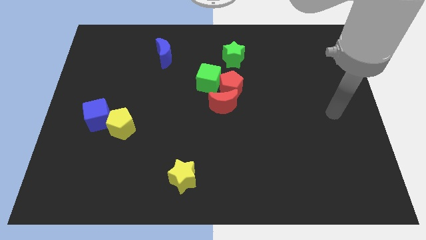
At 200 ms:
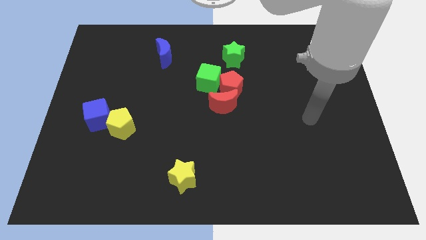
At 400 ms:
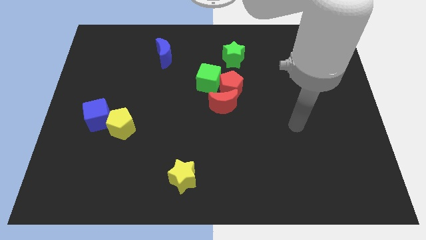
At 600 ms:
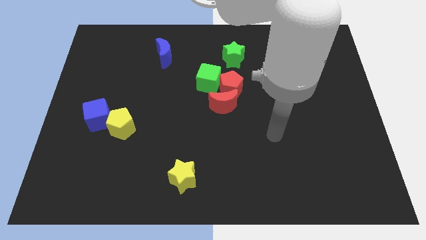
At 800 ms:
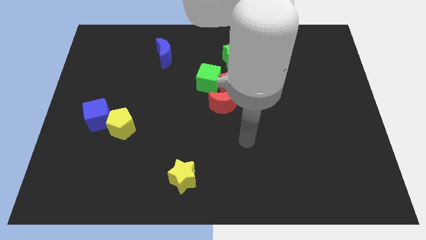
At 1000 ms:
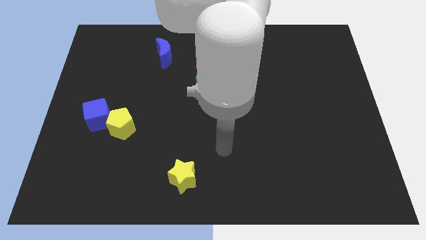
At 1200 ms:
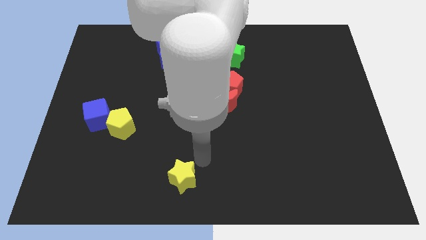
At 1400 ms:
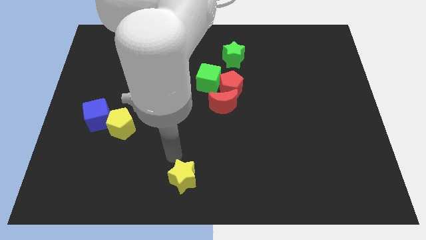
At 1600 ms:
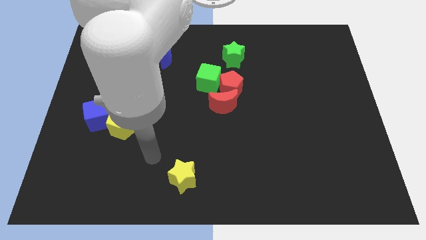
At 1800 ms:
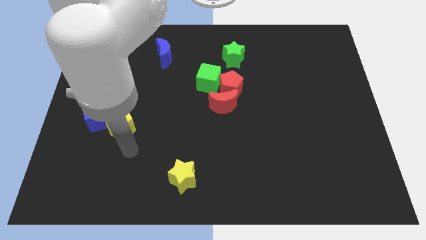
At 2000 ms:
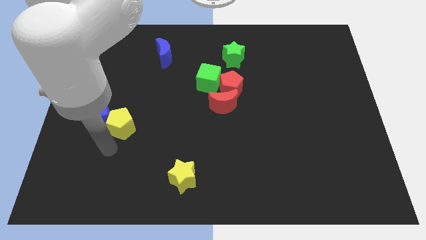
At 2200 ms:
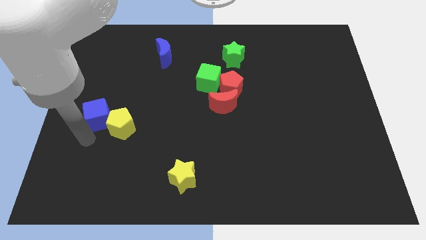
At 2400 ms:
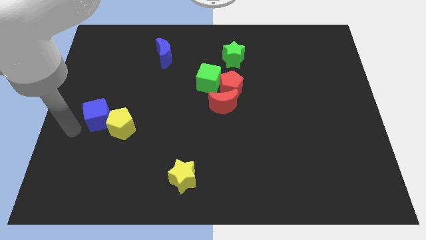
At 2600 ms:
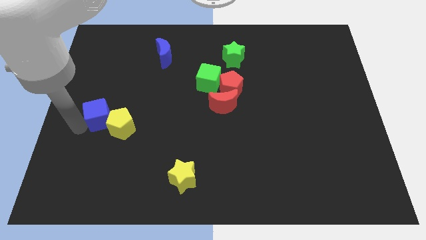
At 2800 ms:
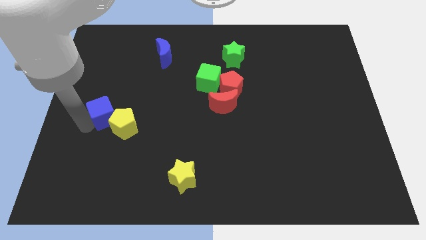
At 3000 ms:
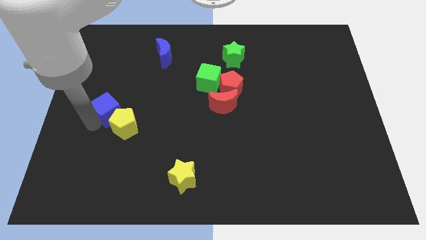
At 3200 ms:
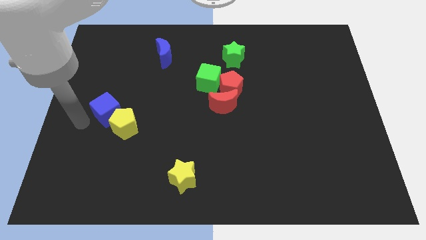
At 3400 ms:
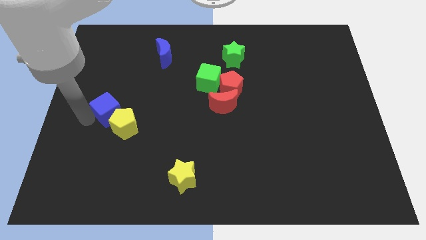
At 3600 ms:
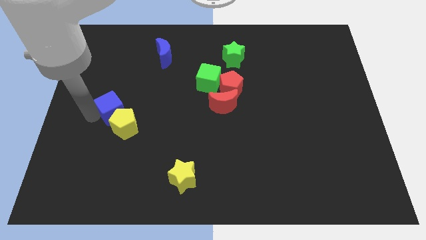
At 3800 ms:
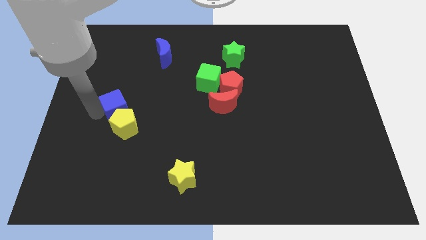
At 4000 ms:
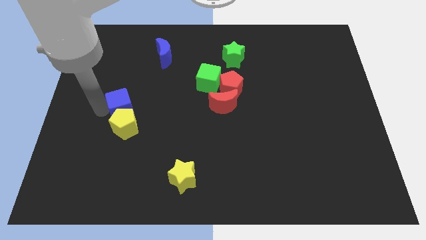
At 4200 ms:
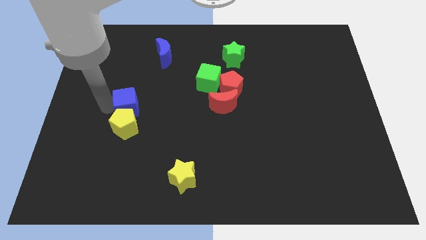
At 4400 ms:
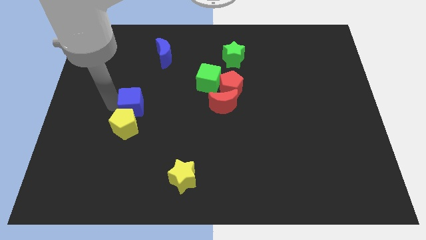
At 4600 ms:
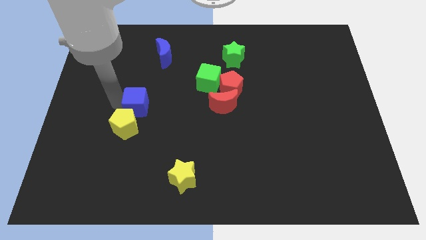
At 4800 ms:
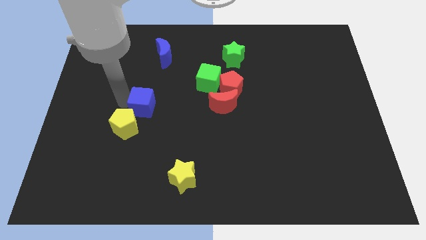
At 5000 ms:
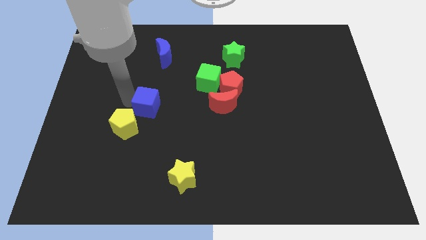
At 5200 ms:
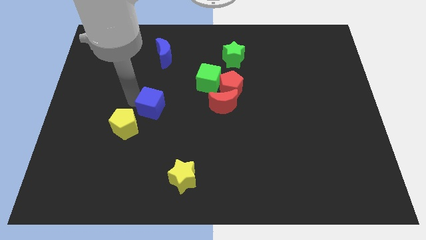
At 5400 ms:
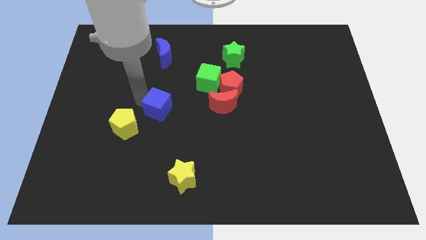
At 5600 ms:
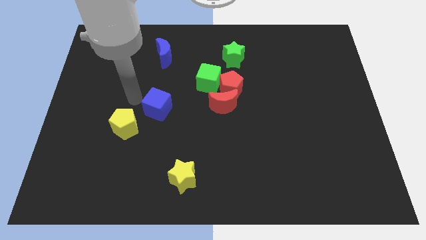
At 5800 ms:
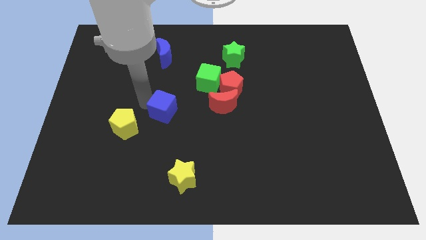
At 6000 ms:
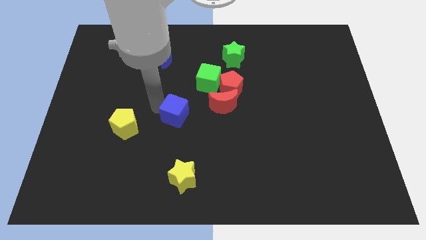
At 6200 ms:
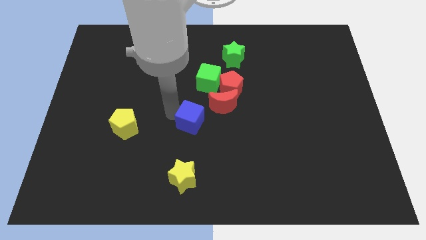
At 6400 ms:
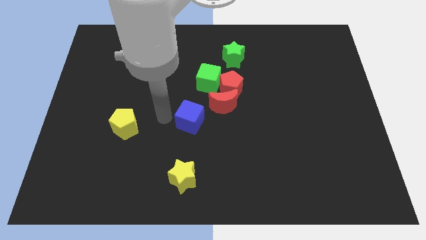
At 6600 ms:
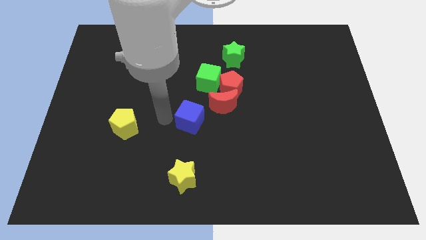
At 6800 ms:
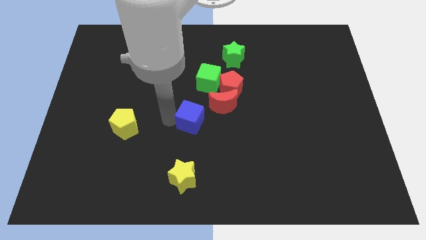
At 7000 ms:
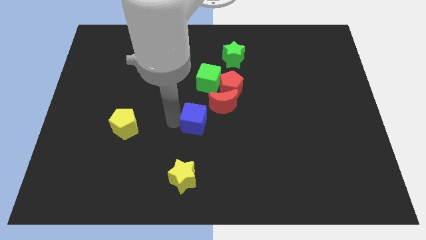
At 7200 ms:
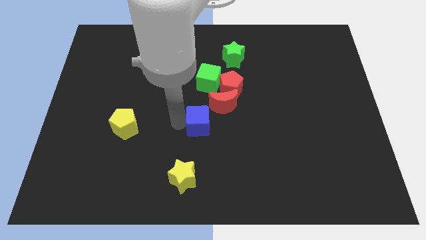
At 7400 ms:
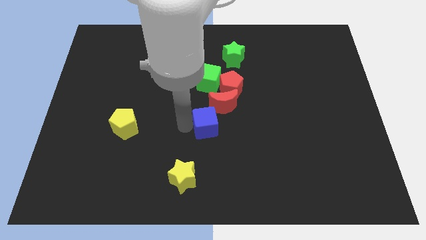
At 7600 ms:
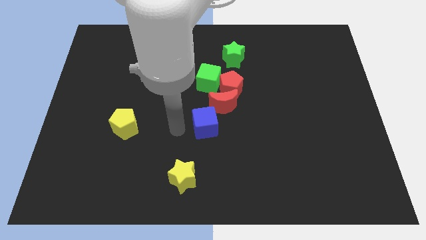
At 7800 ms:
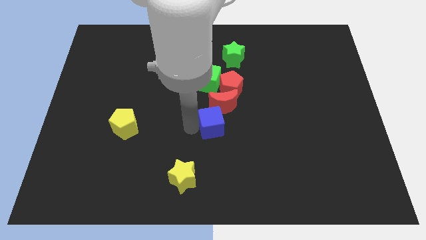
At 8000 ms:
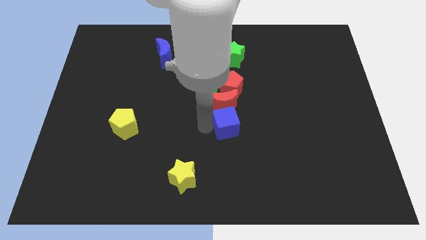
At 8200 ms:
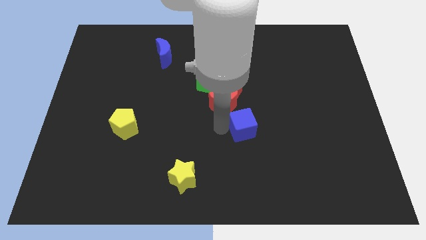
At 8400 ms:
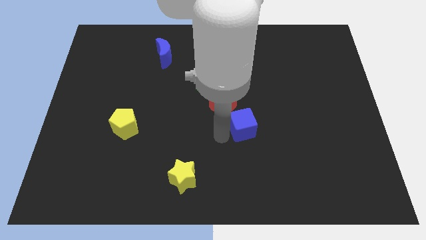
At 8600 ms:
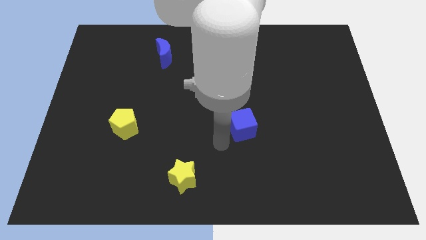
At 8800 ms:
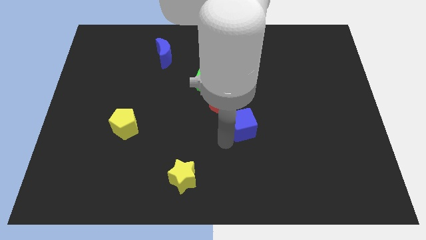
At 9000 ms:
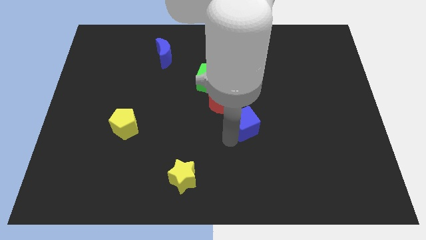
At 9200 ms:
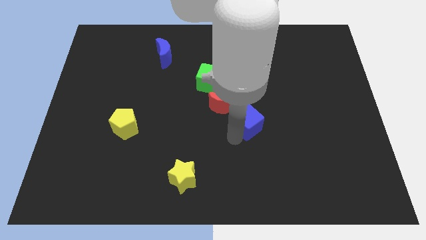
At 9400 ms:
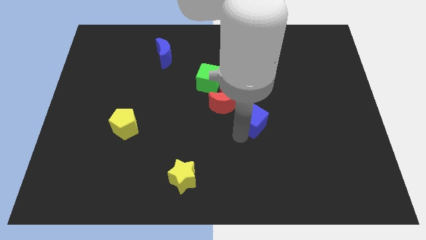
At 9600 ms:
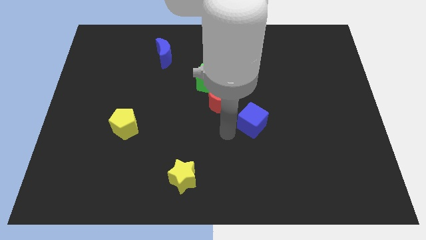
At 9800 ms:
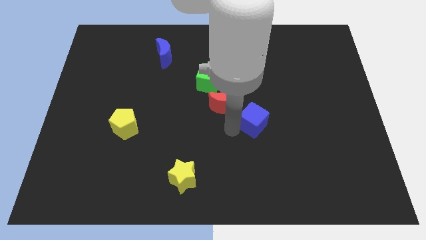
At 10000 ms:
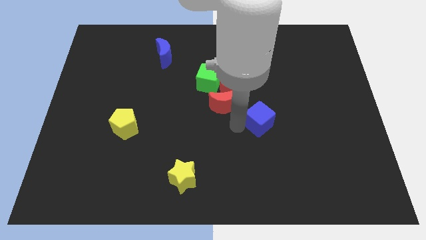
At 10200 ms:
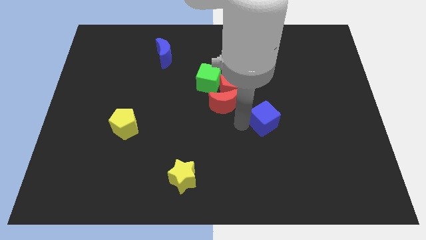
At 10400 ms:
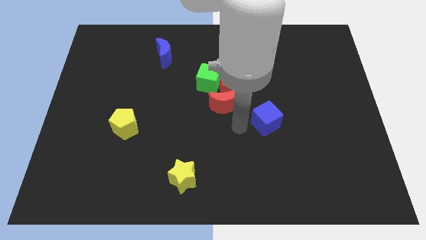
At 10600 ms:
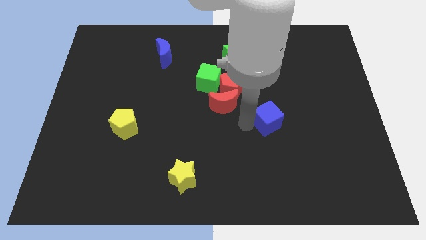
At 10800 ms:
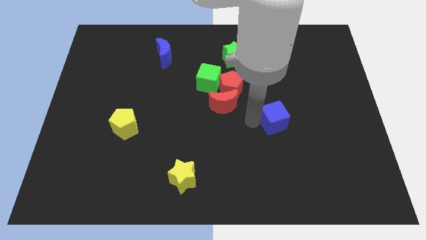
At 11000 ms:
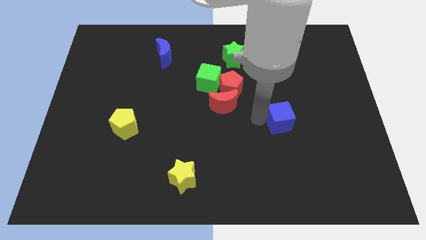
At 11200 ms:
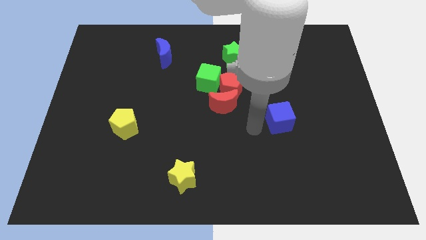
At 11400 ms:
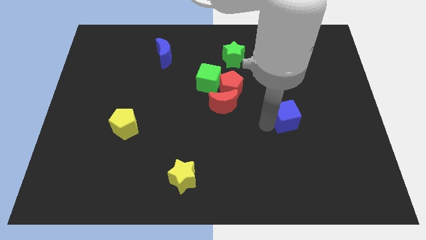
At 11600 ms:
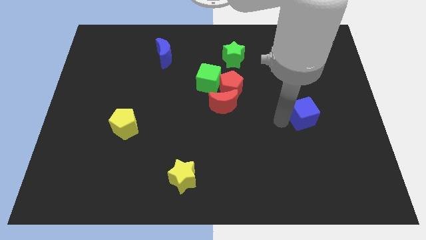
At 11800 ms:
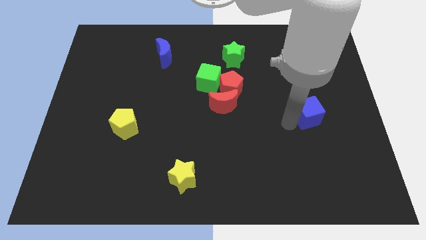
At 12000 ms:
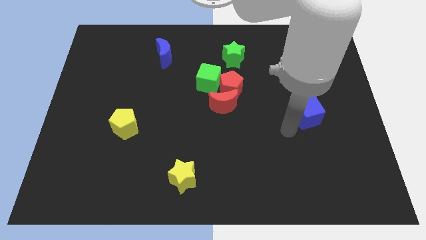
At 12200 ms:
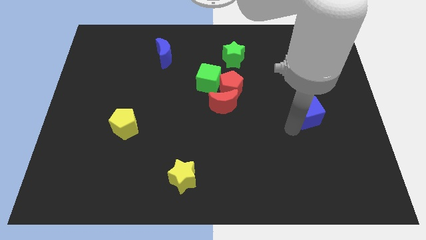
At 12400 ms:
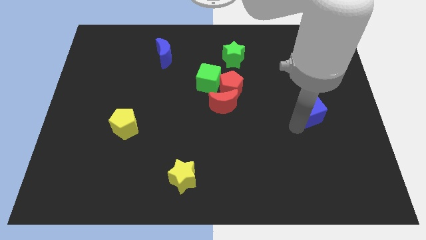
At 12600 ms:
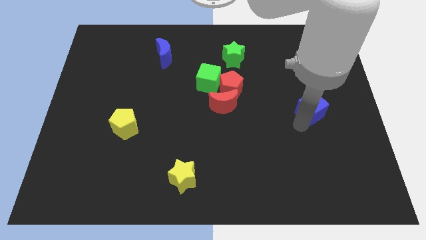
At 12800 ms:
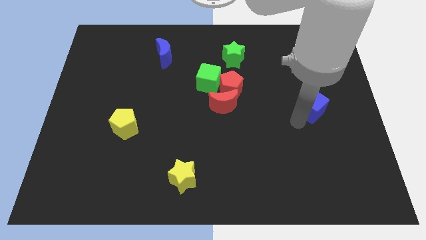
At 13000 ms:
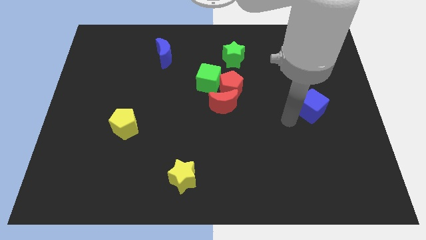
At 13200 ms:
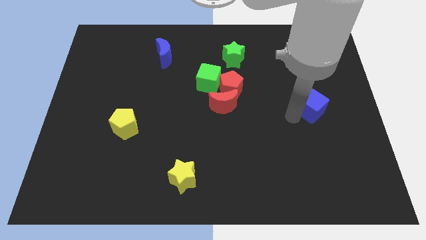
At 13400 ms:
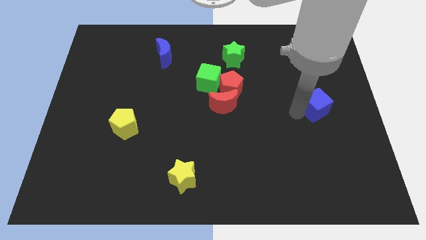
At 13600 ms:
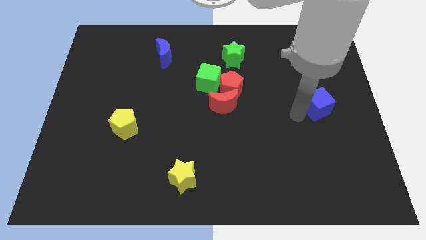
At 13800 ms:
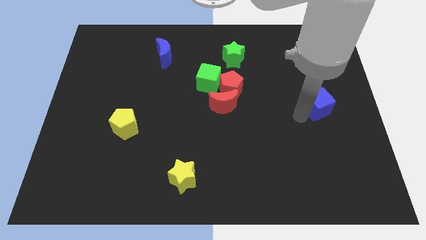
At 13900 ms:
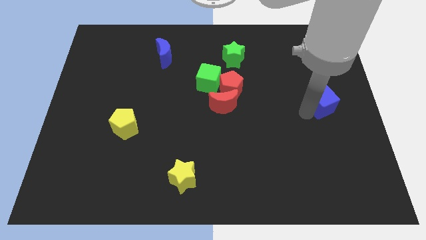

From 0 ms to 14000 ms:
put the blue cube to the right side
